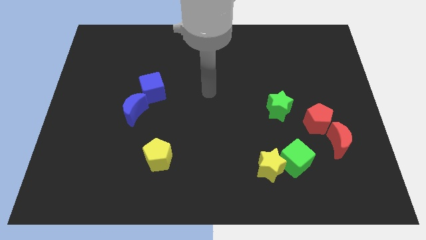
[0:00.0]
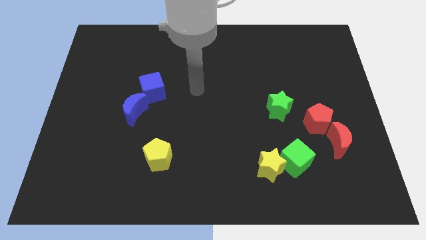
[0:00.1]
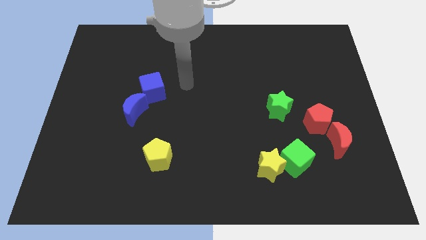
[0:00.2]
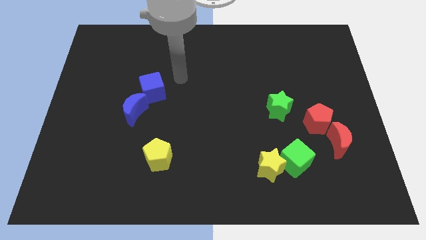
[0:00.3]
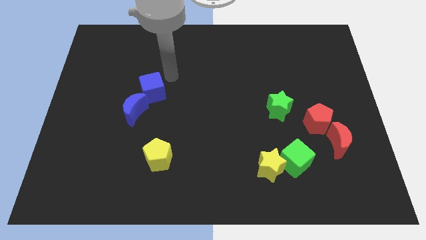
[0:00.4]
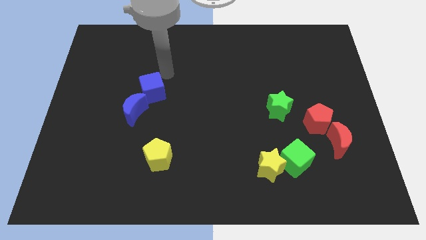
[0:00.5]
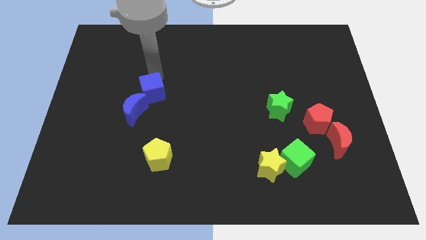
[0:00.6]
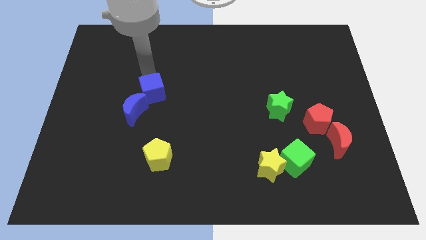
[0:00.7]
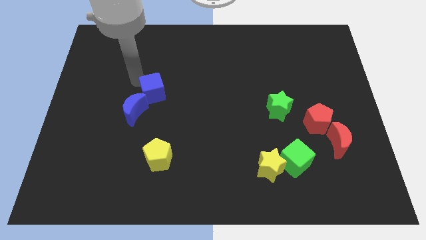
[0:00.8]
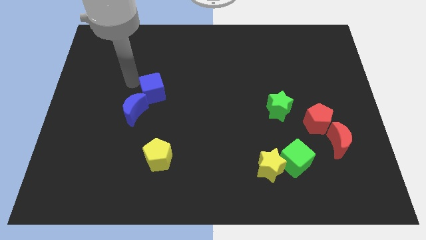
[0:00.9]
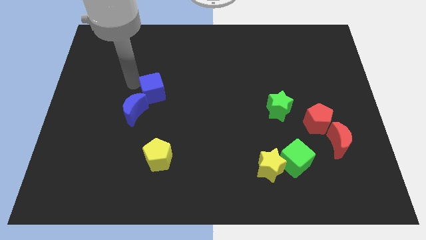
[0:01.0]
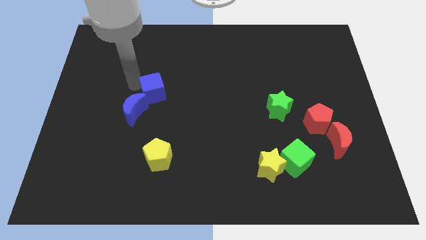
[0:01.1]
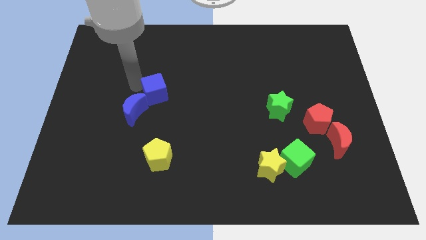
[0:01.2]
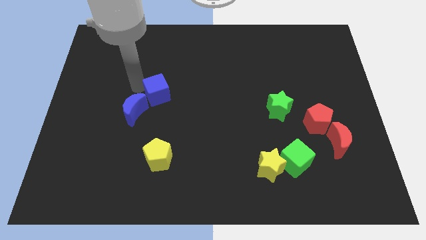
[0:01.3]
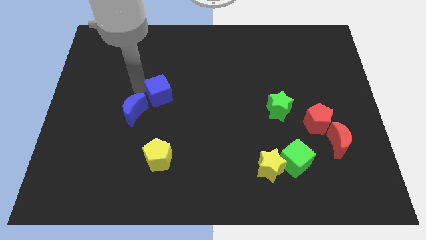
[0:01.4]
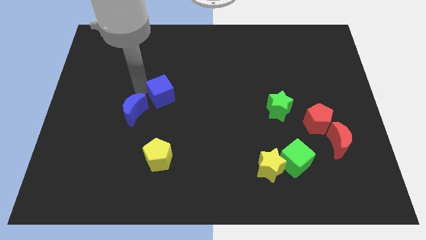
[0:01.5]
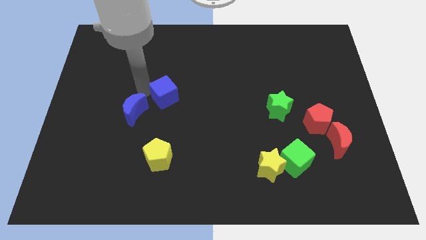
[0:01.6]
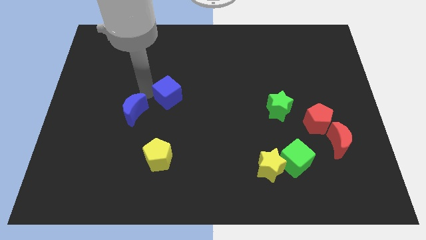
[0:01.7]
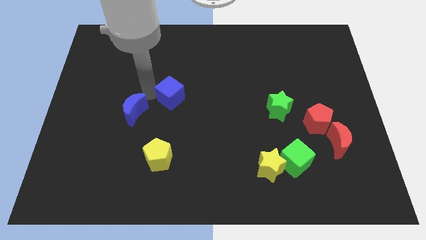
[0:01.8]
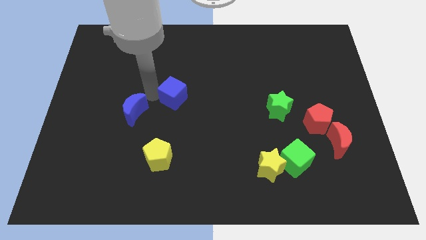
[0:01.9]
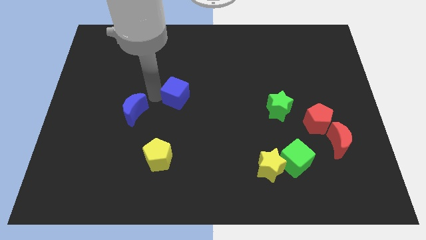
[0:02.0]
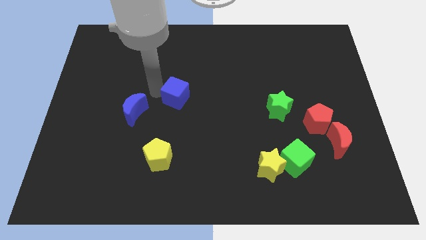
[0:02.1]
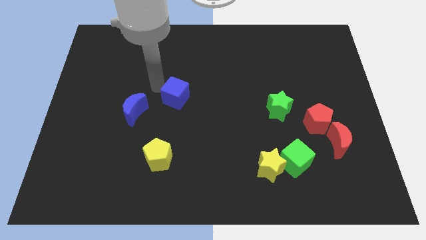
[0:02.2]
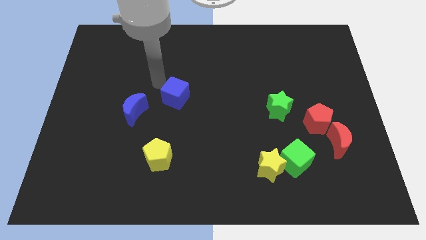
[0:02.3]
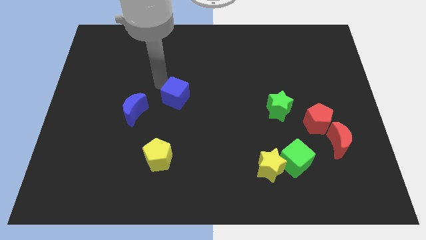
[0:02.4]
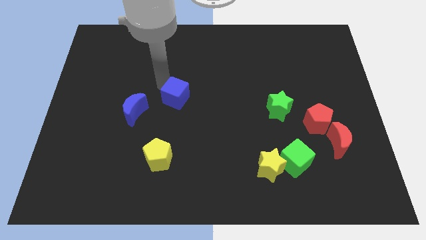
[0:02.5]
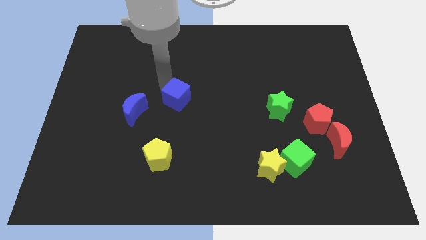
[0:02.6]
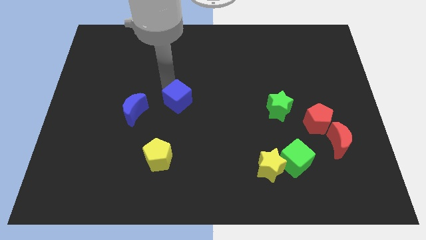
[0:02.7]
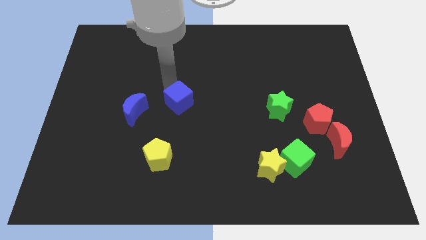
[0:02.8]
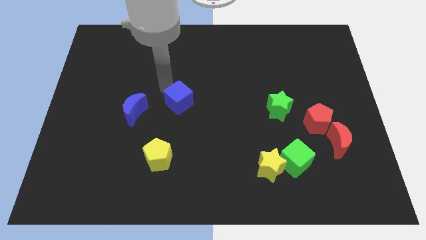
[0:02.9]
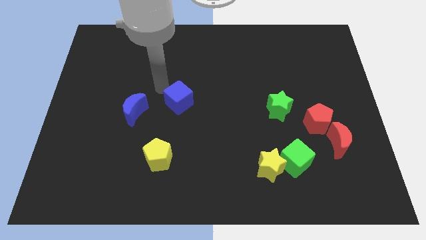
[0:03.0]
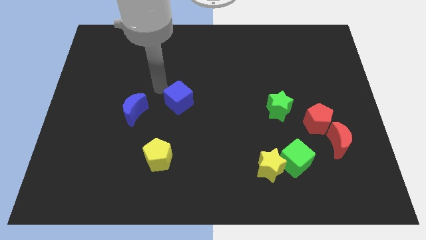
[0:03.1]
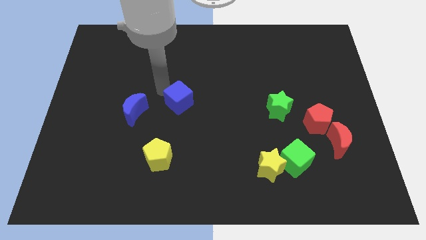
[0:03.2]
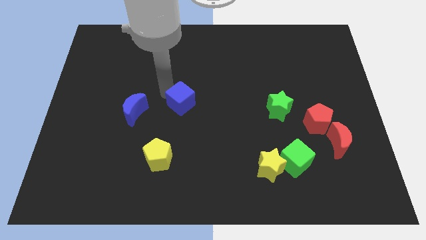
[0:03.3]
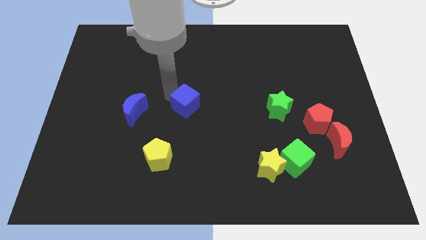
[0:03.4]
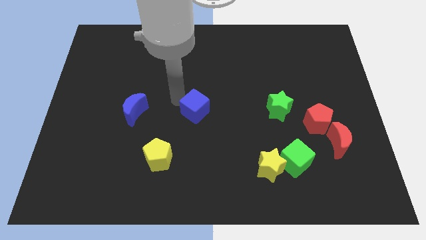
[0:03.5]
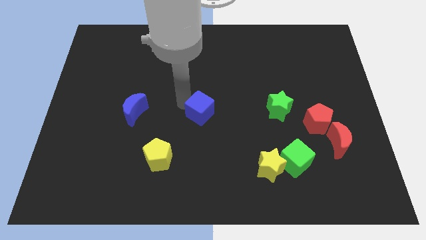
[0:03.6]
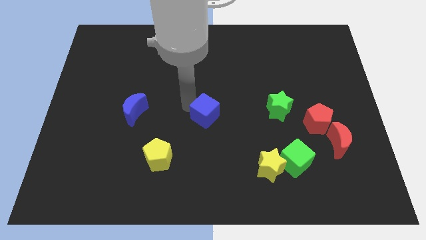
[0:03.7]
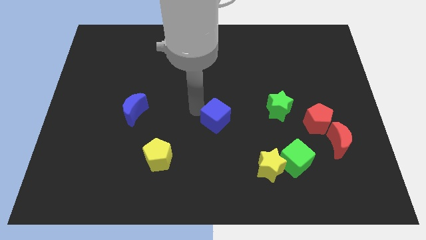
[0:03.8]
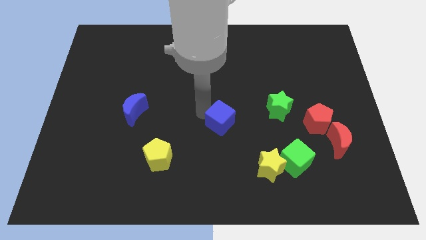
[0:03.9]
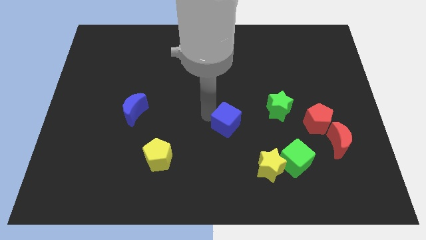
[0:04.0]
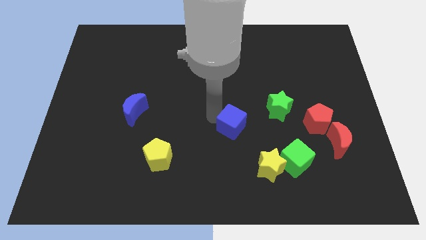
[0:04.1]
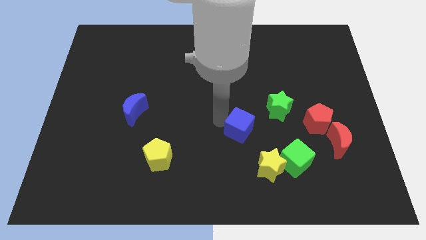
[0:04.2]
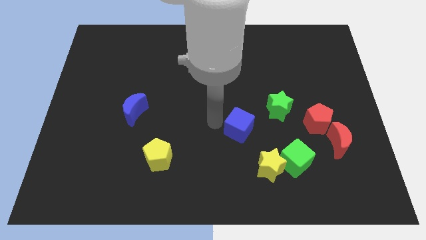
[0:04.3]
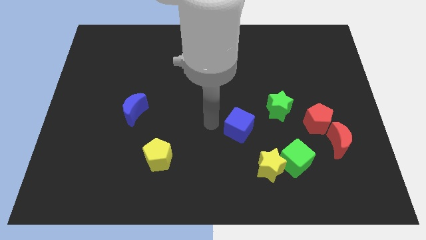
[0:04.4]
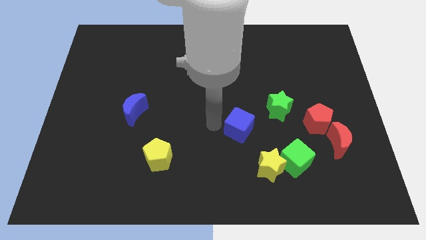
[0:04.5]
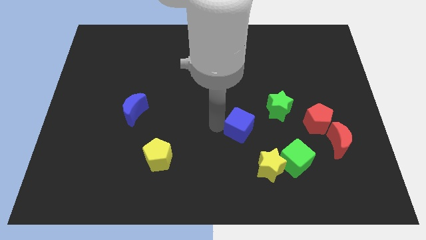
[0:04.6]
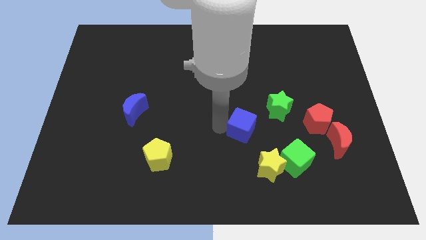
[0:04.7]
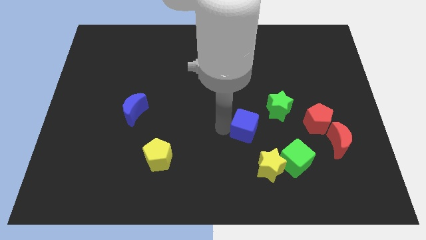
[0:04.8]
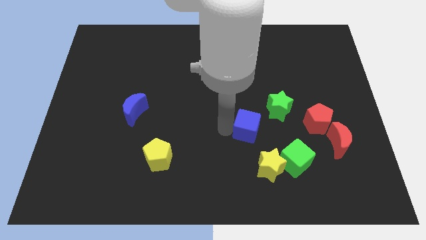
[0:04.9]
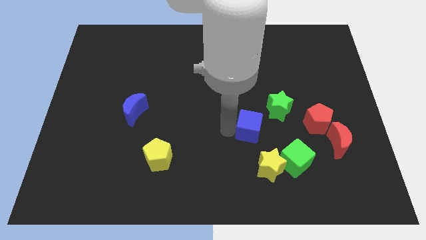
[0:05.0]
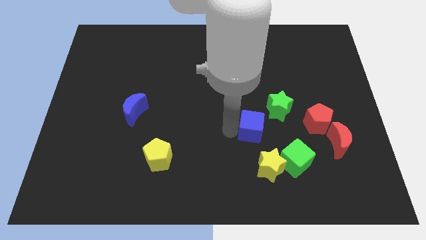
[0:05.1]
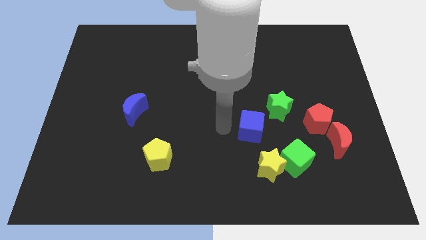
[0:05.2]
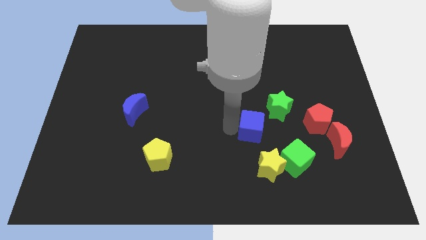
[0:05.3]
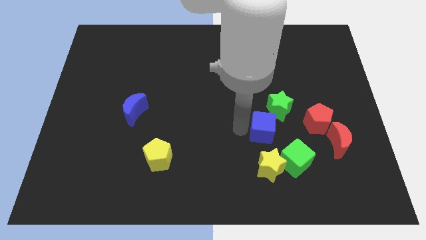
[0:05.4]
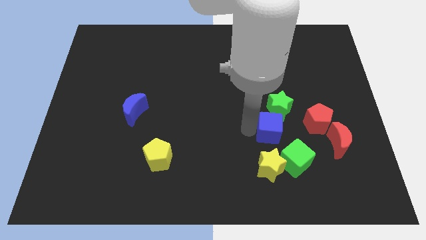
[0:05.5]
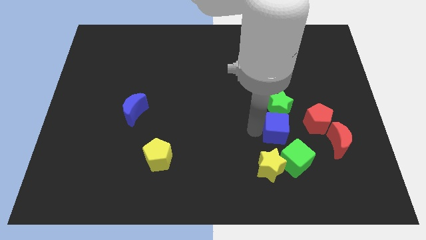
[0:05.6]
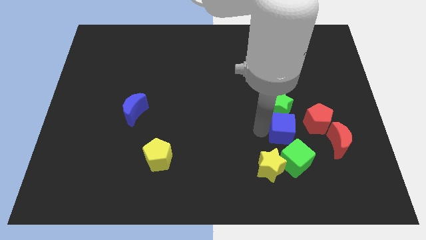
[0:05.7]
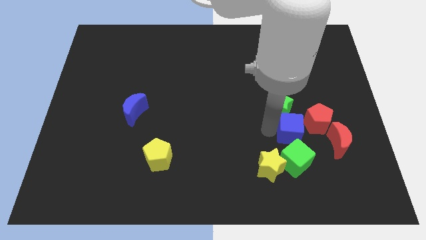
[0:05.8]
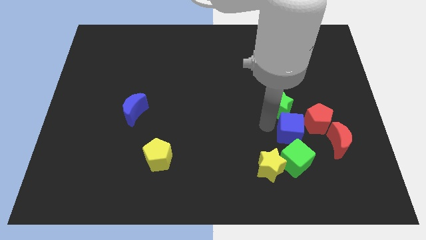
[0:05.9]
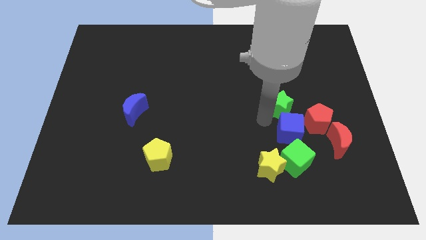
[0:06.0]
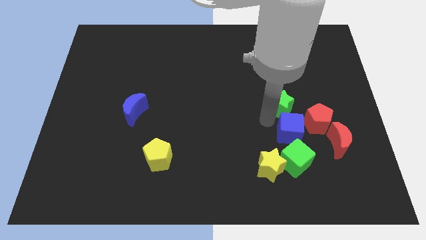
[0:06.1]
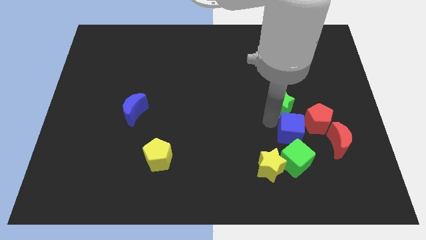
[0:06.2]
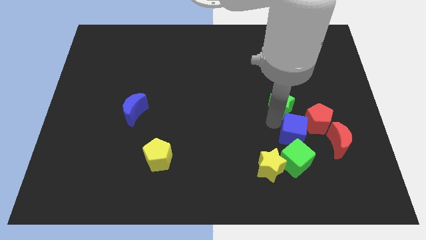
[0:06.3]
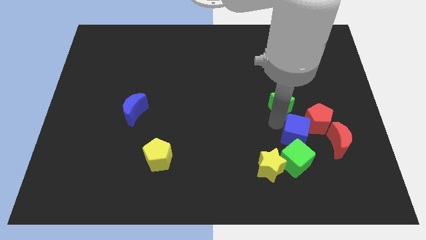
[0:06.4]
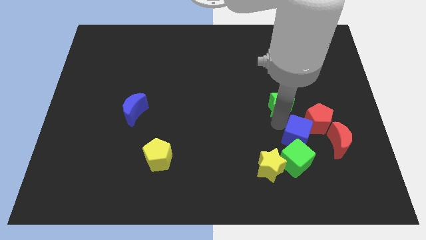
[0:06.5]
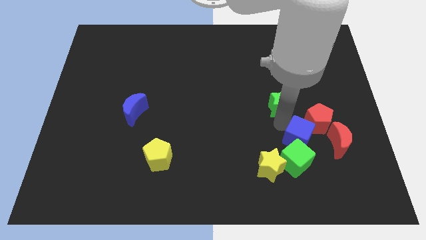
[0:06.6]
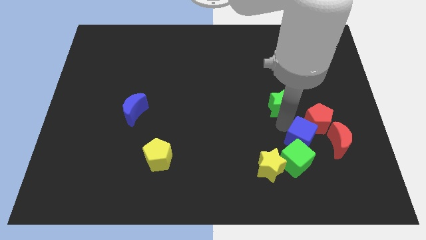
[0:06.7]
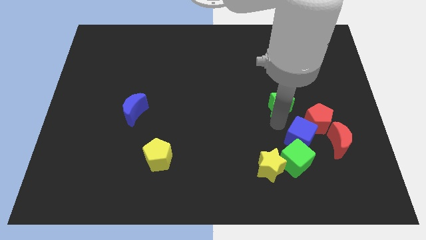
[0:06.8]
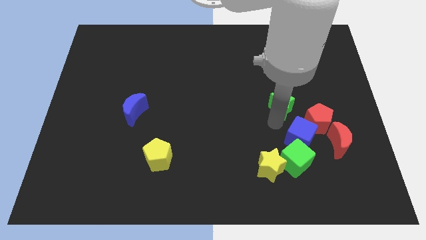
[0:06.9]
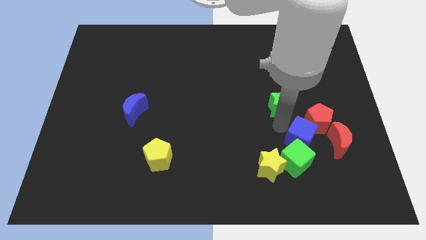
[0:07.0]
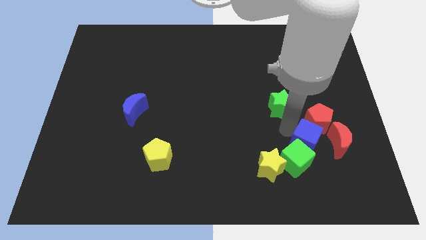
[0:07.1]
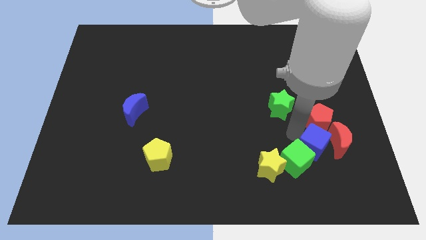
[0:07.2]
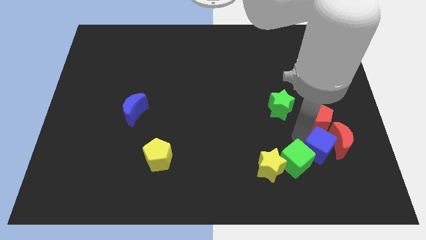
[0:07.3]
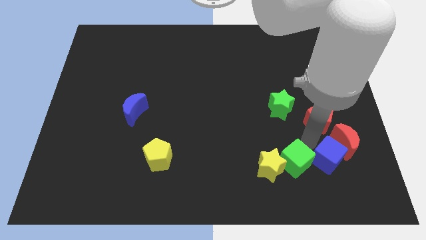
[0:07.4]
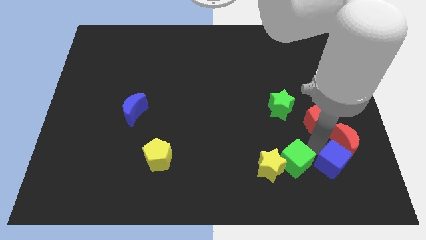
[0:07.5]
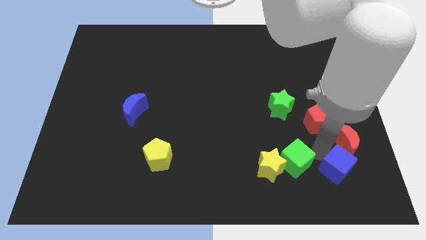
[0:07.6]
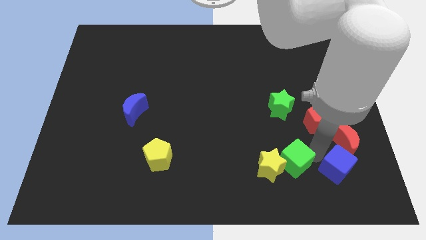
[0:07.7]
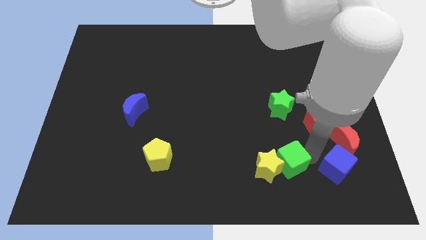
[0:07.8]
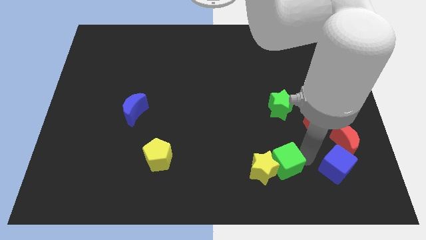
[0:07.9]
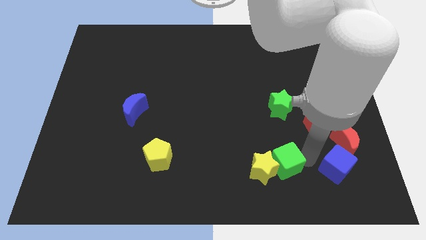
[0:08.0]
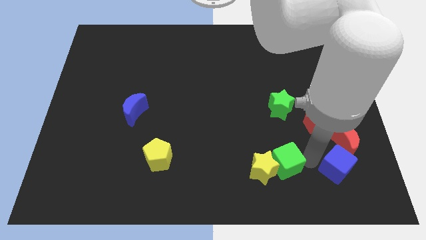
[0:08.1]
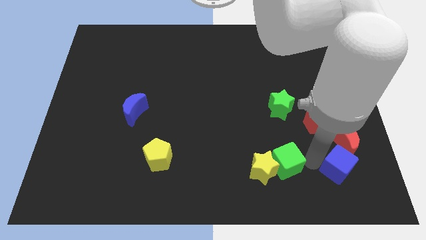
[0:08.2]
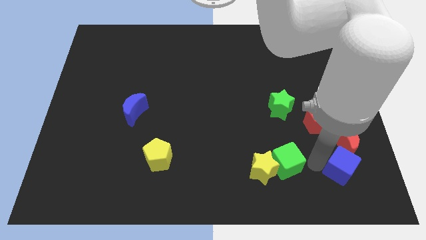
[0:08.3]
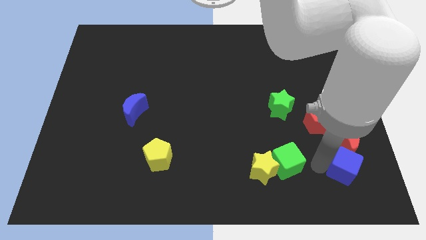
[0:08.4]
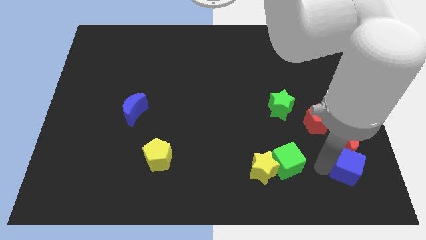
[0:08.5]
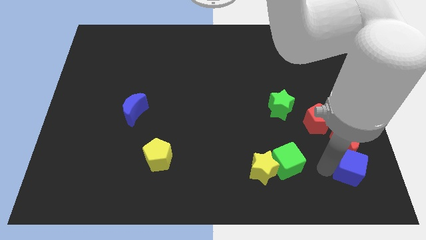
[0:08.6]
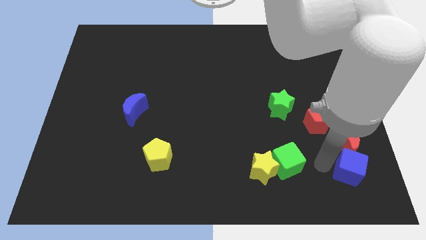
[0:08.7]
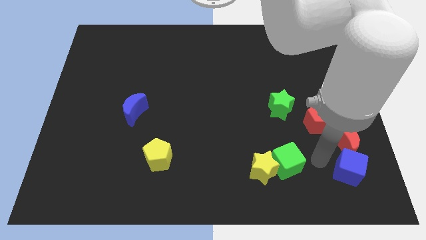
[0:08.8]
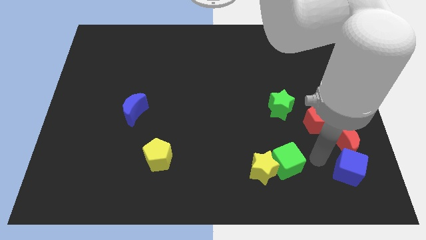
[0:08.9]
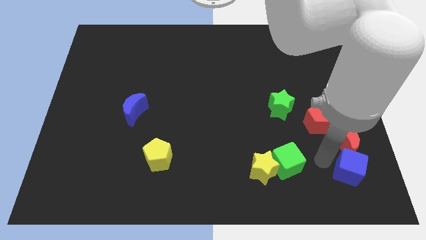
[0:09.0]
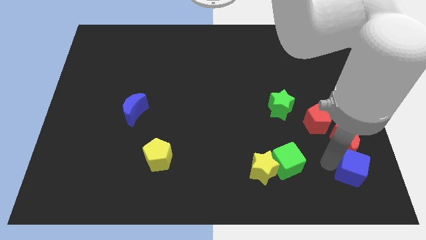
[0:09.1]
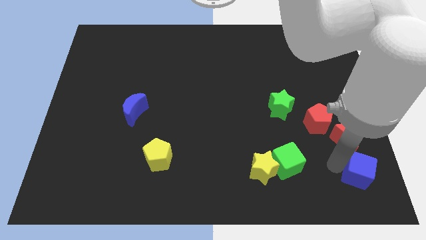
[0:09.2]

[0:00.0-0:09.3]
put the blue cube to the bottom right
